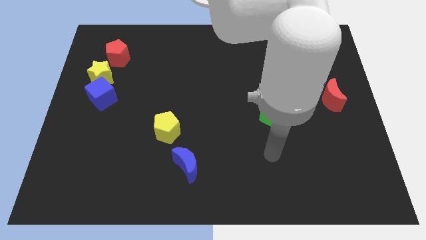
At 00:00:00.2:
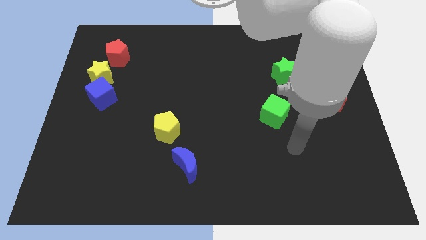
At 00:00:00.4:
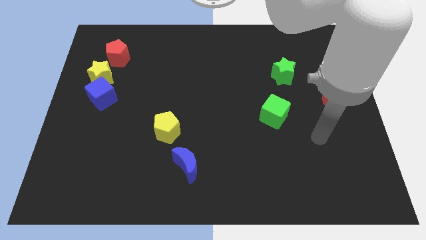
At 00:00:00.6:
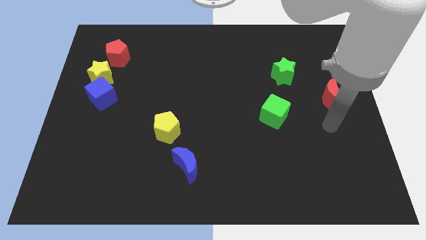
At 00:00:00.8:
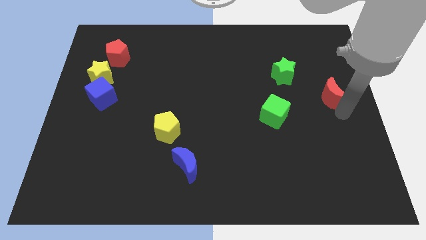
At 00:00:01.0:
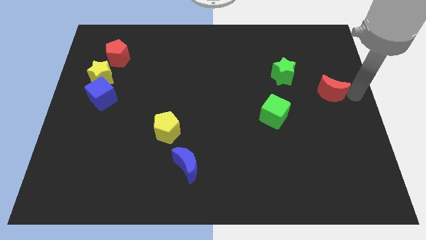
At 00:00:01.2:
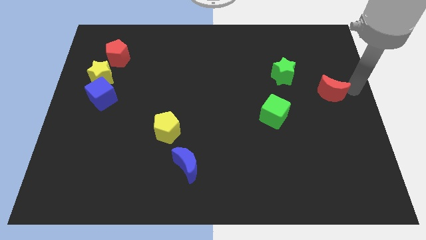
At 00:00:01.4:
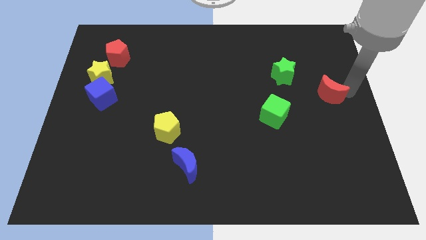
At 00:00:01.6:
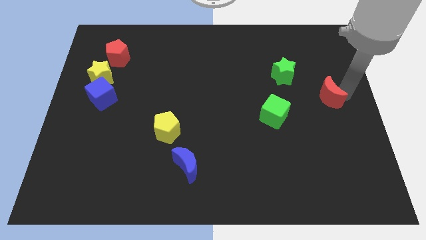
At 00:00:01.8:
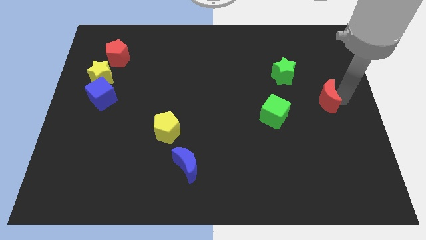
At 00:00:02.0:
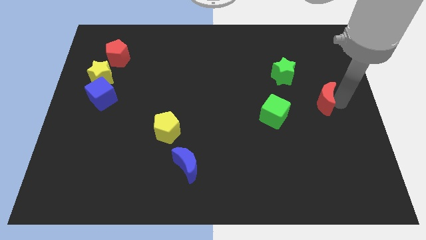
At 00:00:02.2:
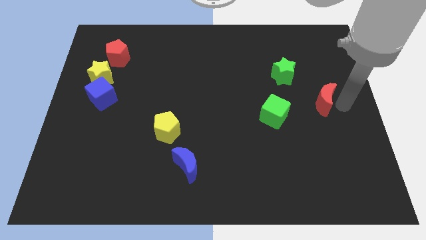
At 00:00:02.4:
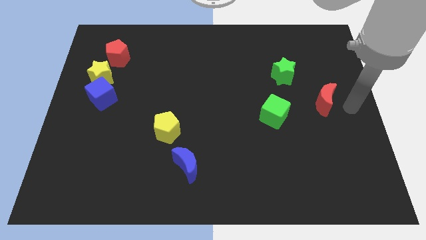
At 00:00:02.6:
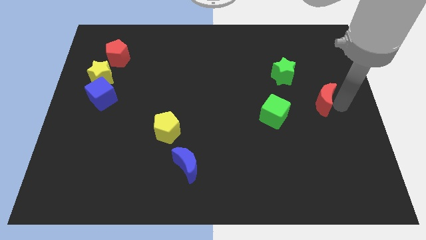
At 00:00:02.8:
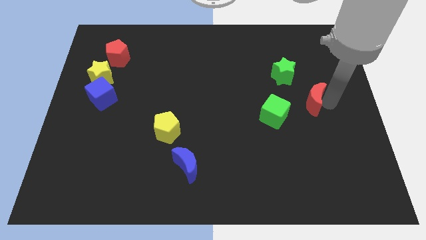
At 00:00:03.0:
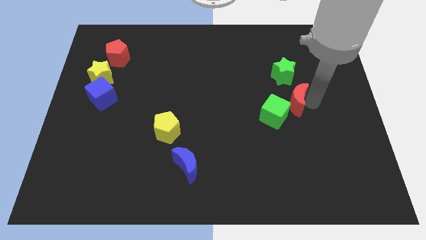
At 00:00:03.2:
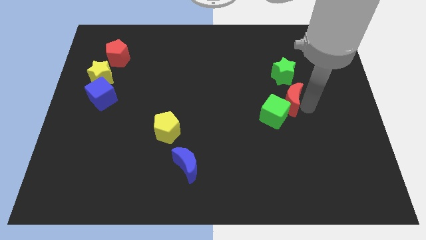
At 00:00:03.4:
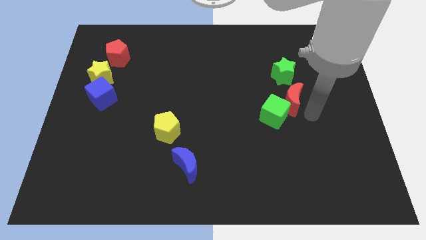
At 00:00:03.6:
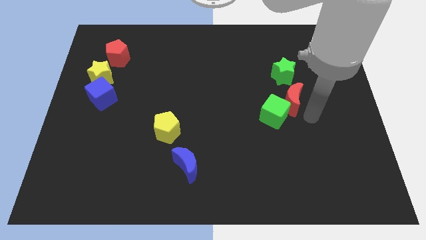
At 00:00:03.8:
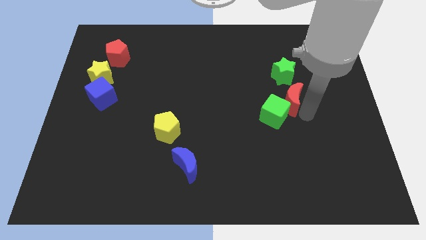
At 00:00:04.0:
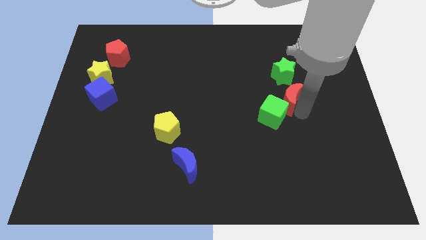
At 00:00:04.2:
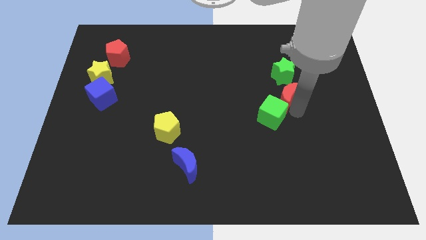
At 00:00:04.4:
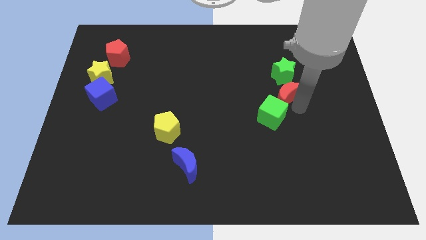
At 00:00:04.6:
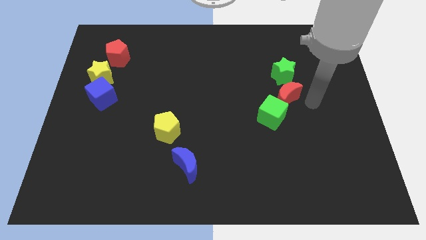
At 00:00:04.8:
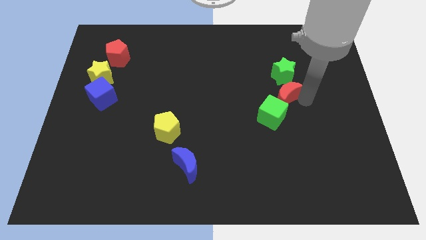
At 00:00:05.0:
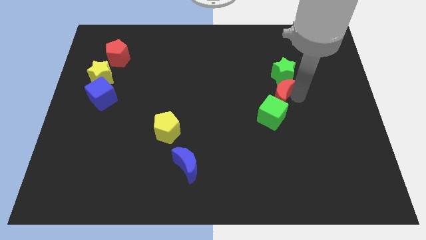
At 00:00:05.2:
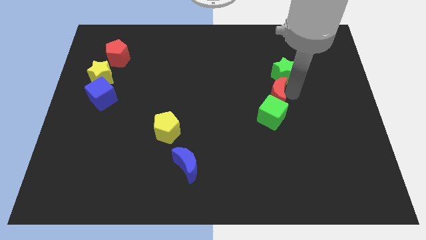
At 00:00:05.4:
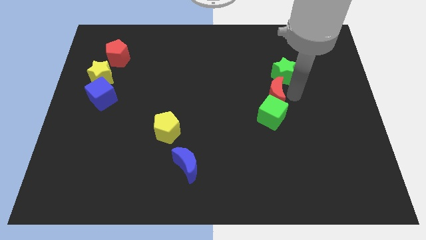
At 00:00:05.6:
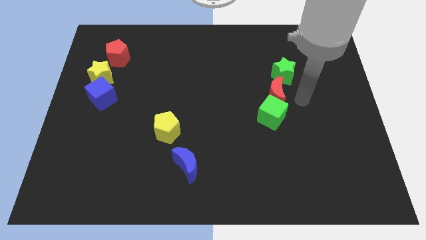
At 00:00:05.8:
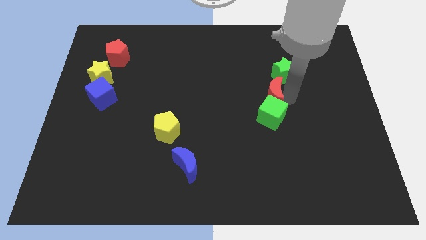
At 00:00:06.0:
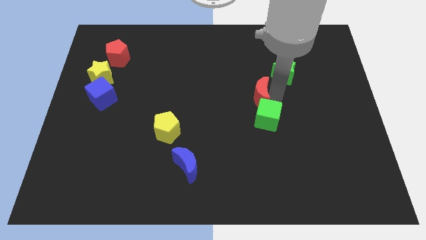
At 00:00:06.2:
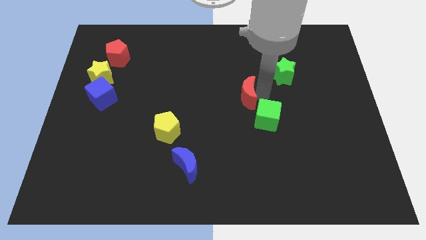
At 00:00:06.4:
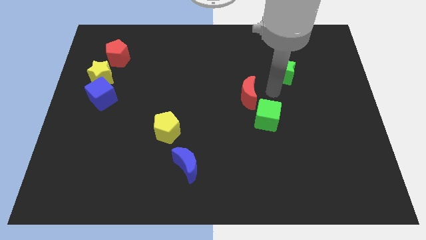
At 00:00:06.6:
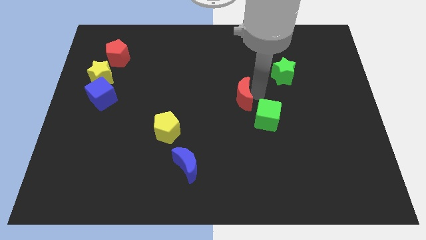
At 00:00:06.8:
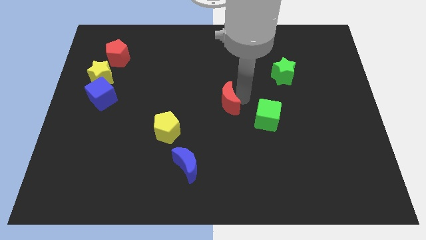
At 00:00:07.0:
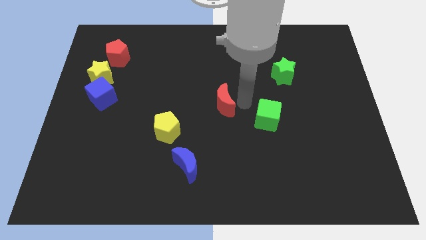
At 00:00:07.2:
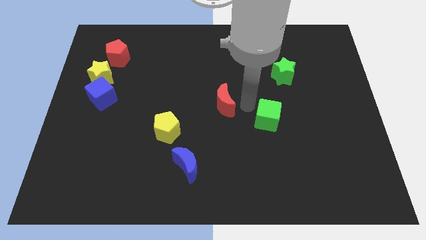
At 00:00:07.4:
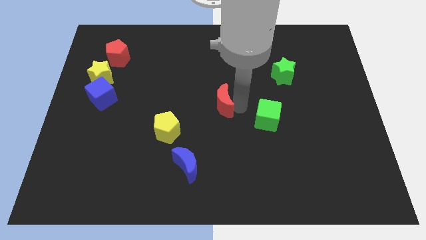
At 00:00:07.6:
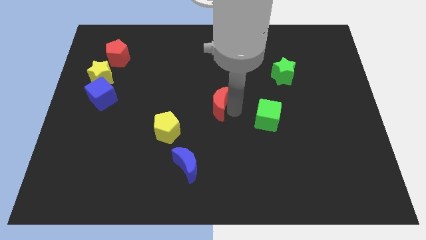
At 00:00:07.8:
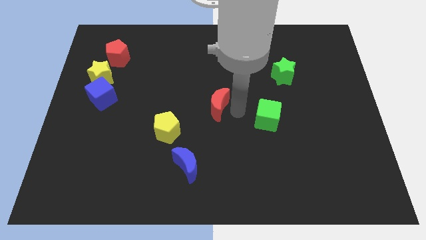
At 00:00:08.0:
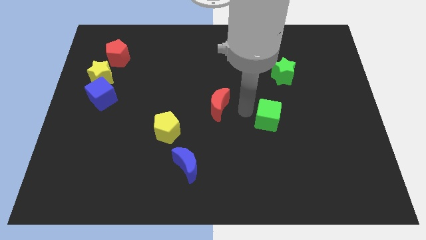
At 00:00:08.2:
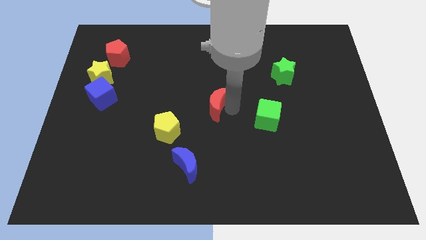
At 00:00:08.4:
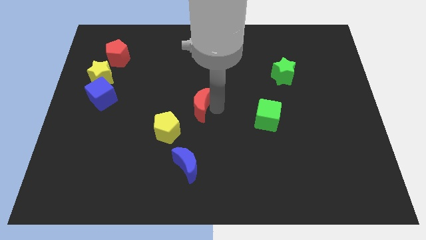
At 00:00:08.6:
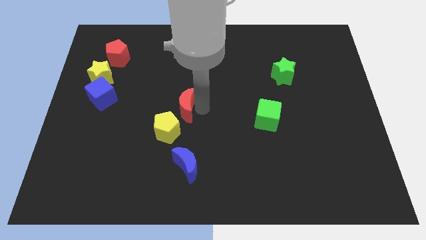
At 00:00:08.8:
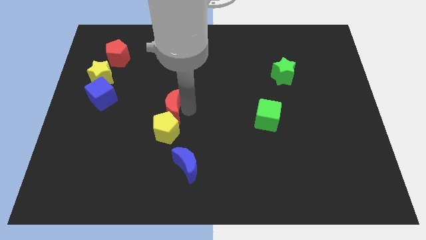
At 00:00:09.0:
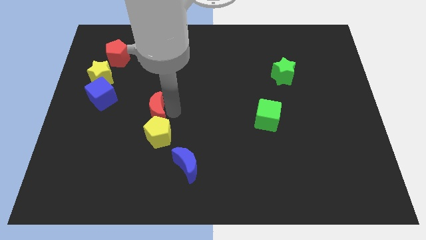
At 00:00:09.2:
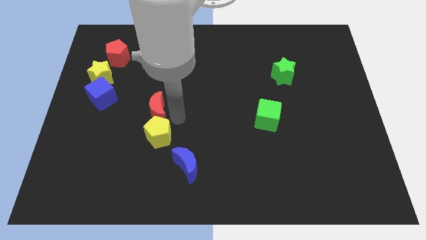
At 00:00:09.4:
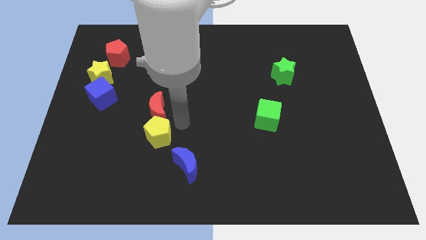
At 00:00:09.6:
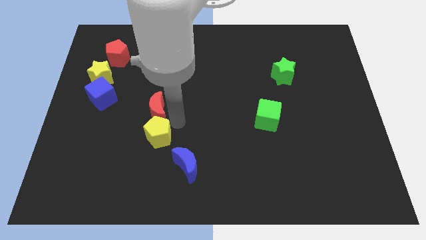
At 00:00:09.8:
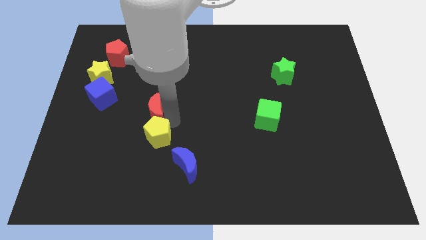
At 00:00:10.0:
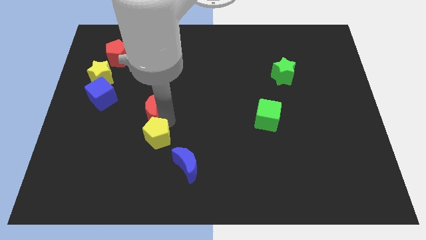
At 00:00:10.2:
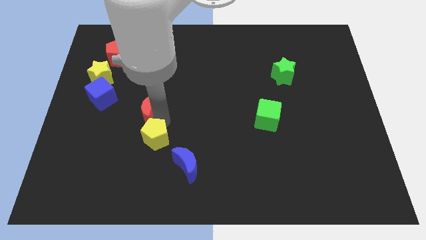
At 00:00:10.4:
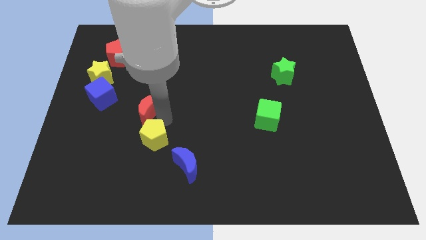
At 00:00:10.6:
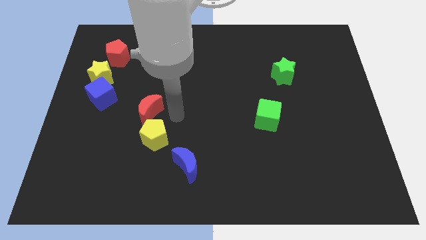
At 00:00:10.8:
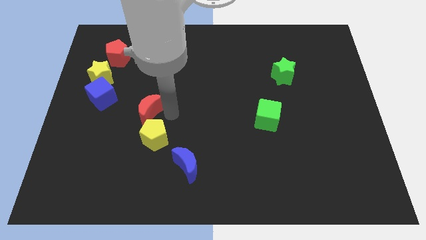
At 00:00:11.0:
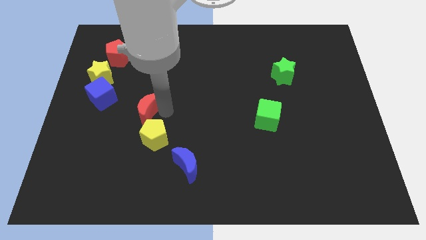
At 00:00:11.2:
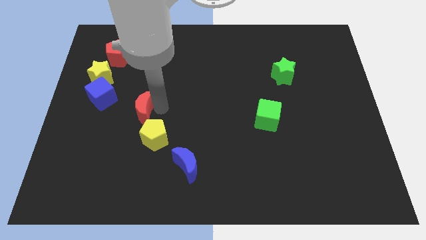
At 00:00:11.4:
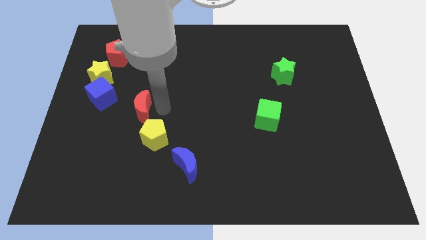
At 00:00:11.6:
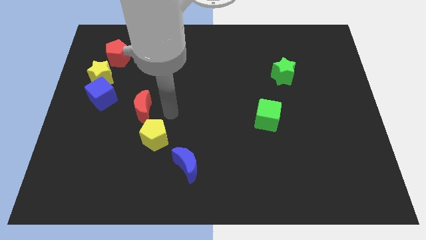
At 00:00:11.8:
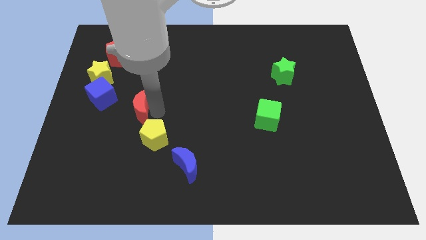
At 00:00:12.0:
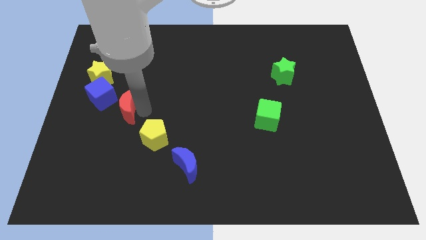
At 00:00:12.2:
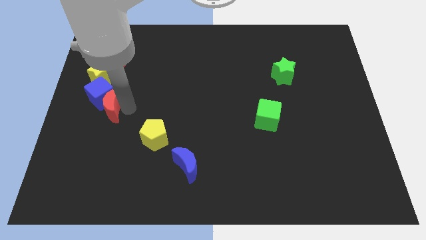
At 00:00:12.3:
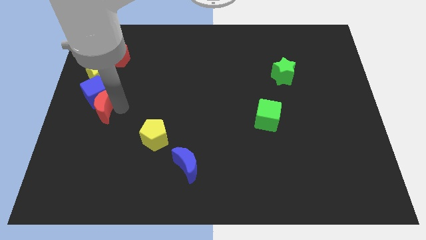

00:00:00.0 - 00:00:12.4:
push the red moon to the left side

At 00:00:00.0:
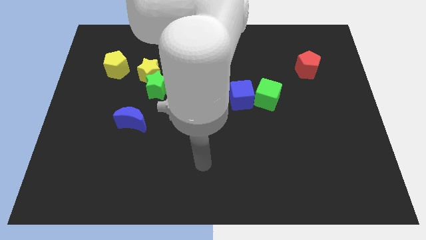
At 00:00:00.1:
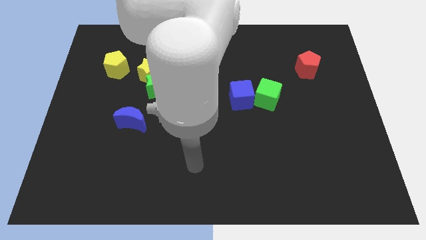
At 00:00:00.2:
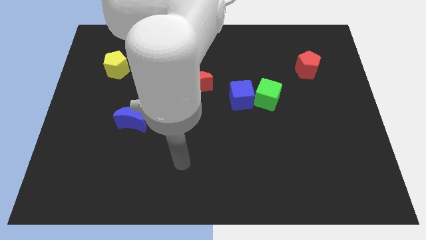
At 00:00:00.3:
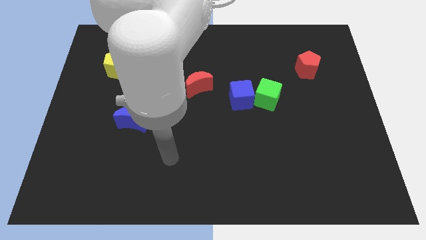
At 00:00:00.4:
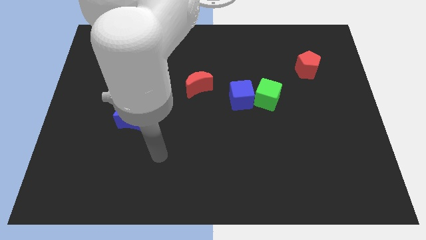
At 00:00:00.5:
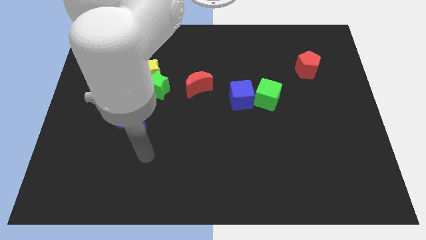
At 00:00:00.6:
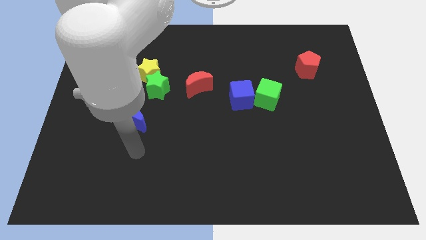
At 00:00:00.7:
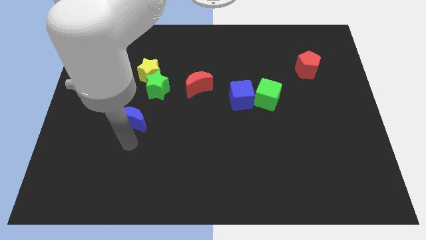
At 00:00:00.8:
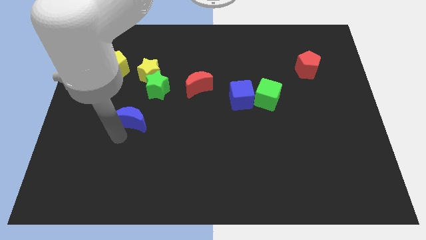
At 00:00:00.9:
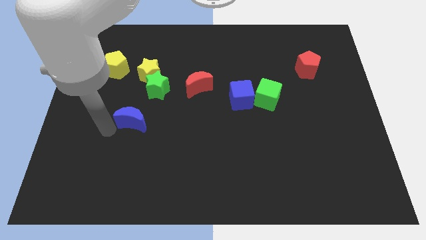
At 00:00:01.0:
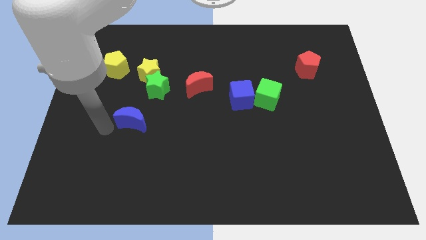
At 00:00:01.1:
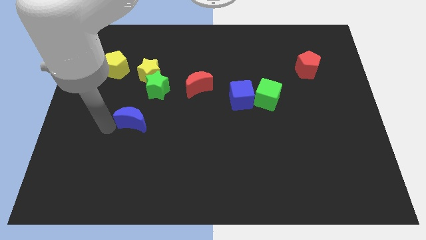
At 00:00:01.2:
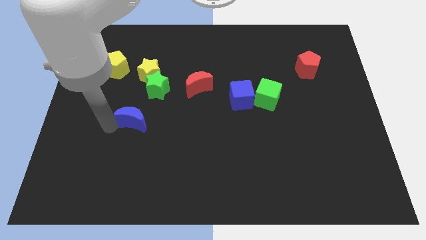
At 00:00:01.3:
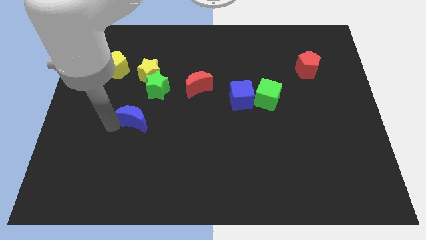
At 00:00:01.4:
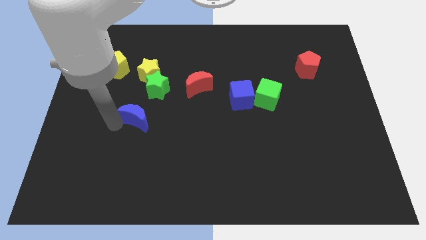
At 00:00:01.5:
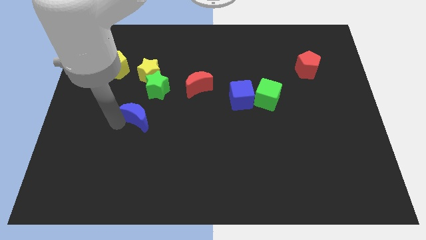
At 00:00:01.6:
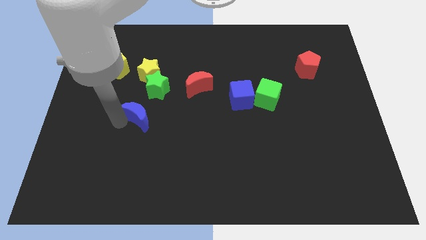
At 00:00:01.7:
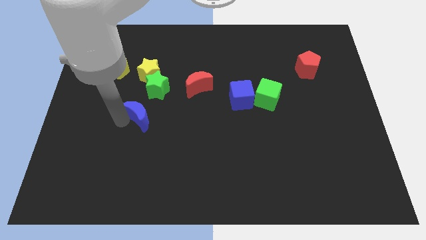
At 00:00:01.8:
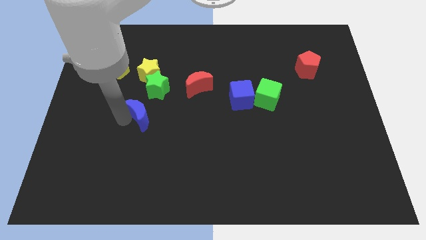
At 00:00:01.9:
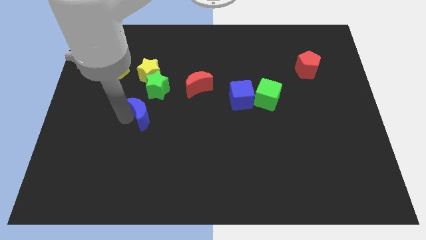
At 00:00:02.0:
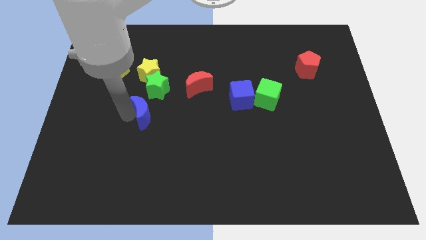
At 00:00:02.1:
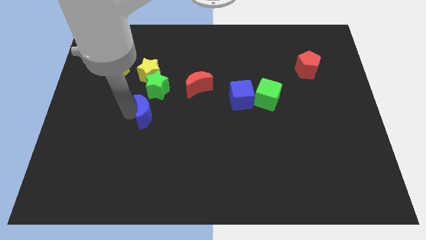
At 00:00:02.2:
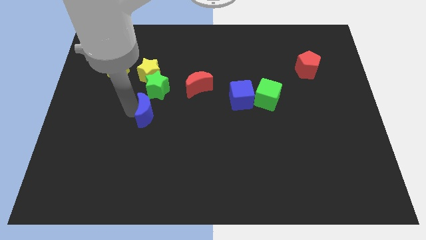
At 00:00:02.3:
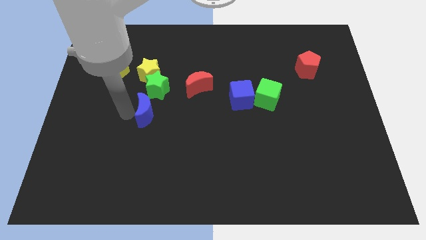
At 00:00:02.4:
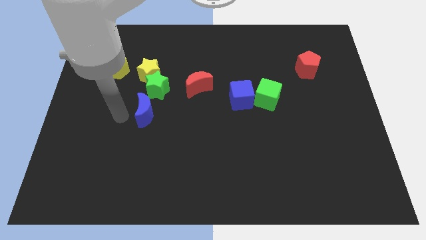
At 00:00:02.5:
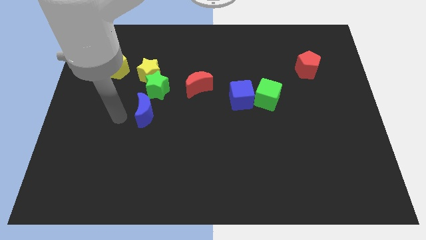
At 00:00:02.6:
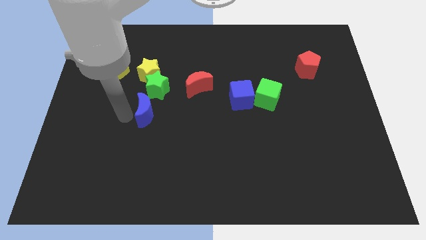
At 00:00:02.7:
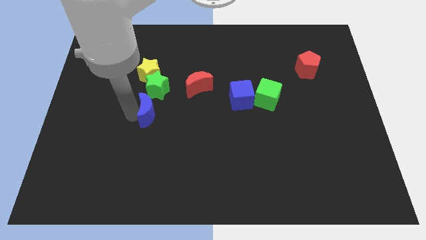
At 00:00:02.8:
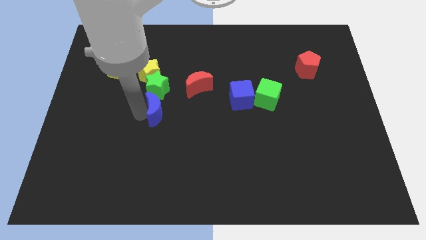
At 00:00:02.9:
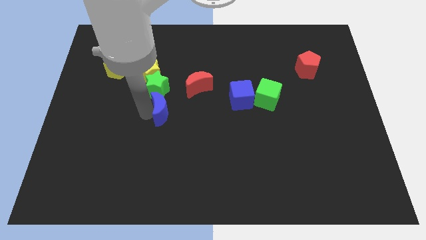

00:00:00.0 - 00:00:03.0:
slide the blue moon to the center of the board
